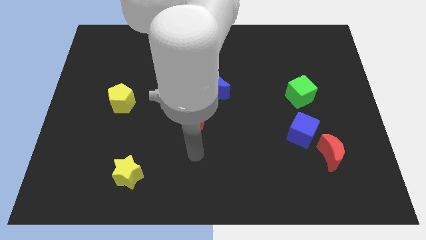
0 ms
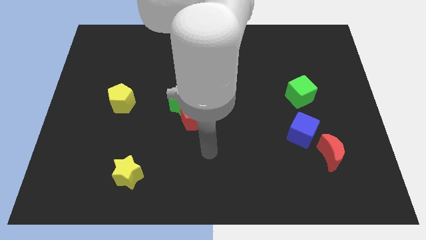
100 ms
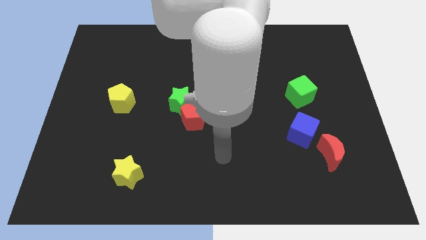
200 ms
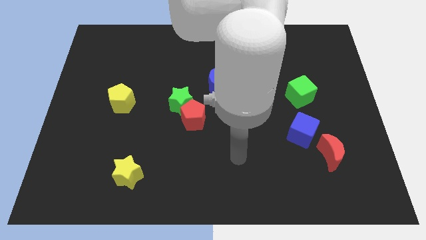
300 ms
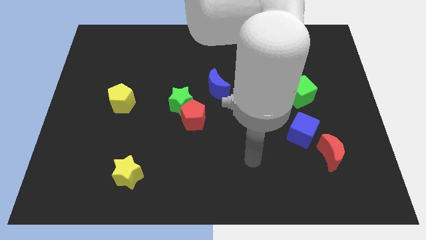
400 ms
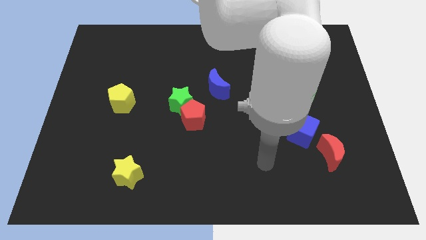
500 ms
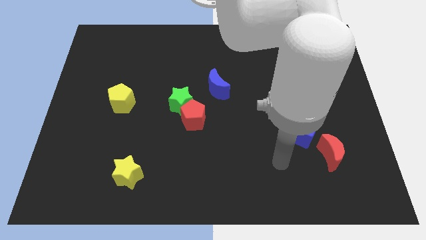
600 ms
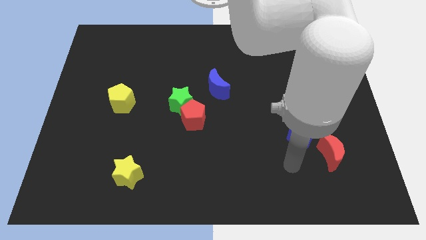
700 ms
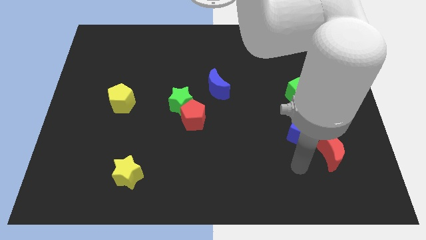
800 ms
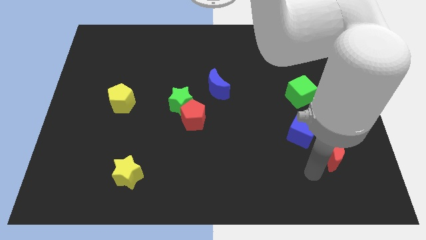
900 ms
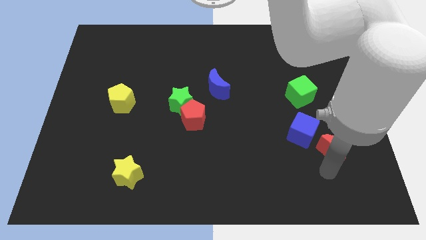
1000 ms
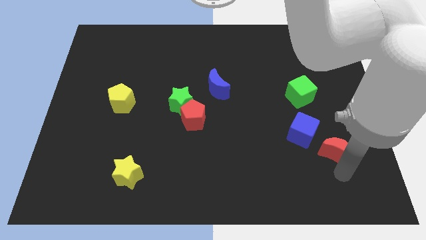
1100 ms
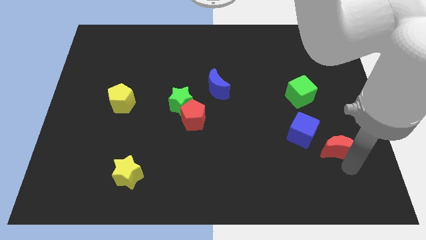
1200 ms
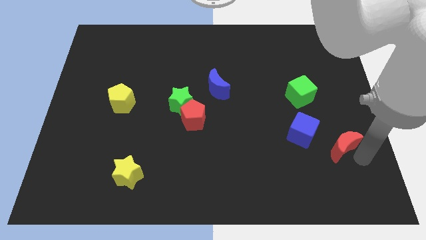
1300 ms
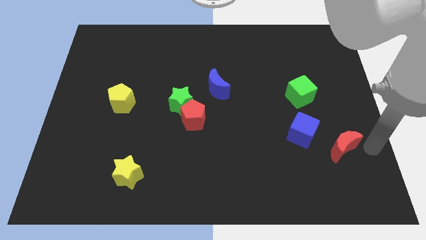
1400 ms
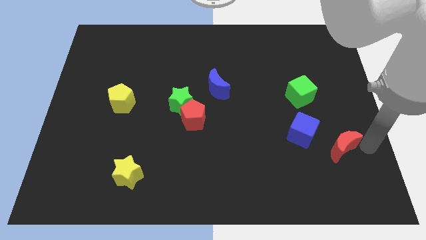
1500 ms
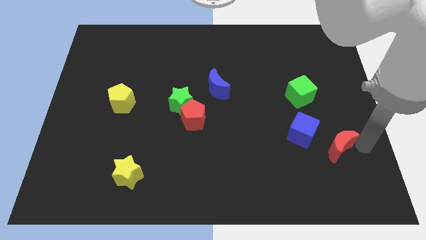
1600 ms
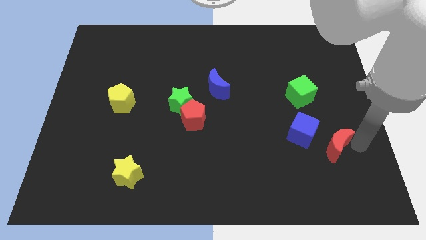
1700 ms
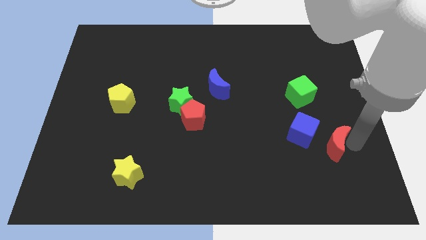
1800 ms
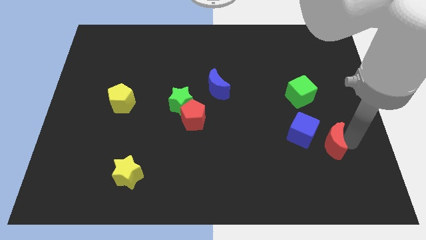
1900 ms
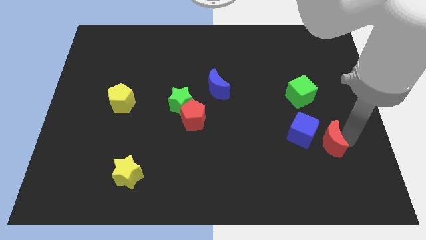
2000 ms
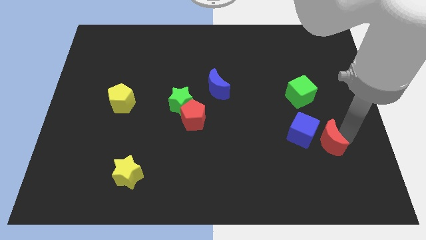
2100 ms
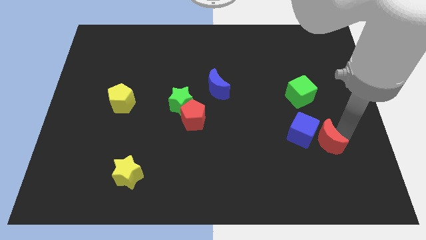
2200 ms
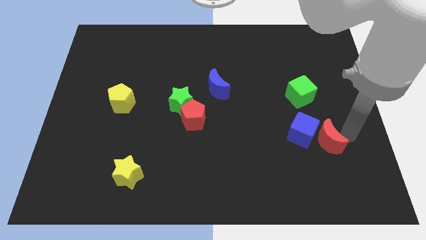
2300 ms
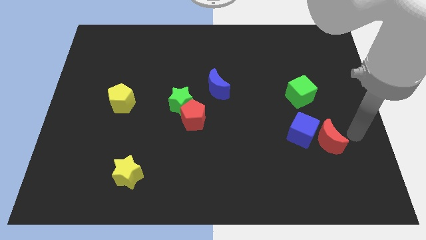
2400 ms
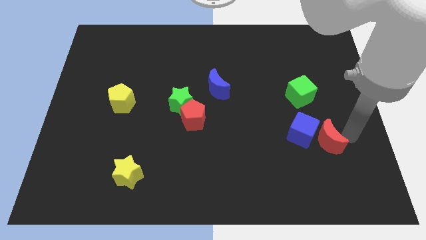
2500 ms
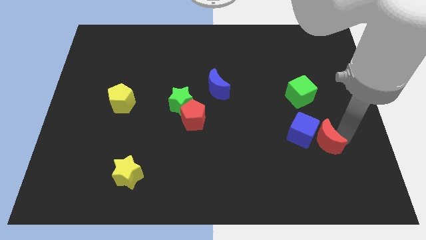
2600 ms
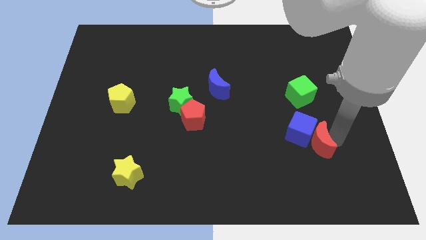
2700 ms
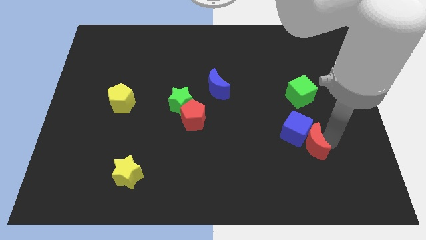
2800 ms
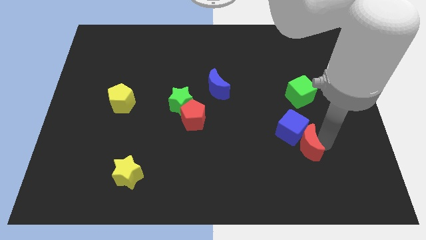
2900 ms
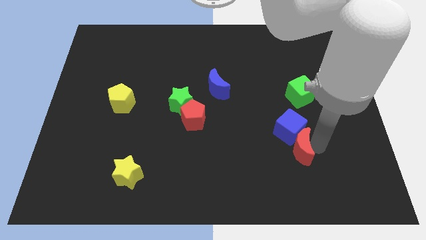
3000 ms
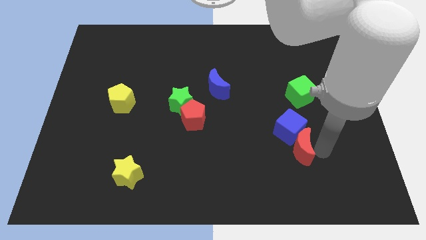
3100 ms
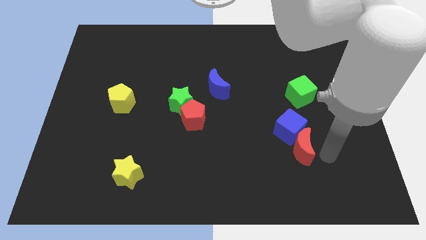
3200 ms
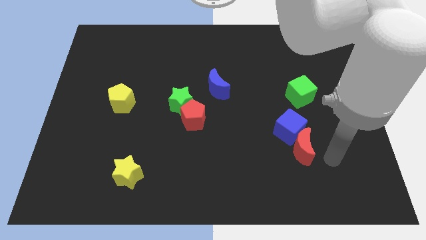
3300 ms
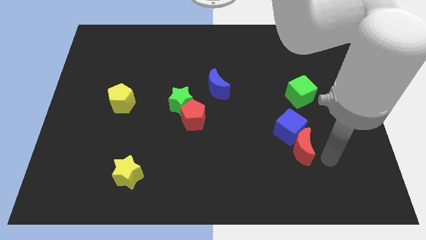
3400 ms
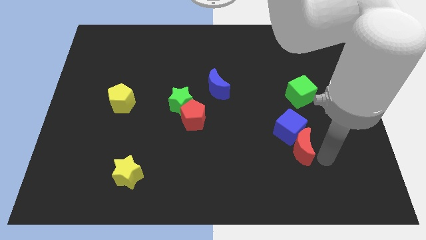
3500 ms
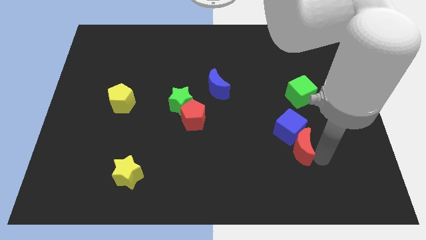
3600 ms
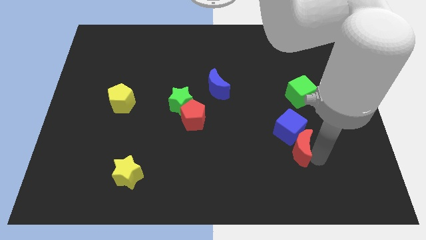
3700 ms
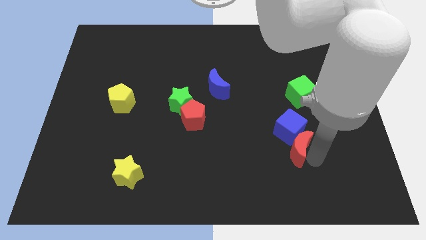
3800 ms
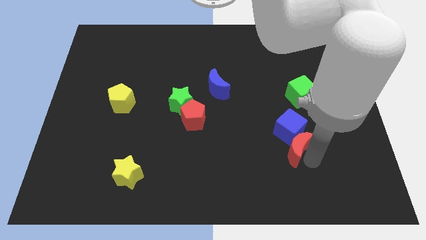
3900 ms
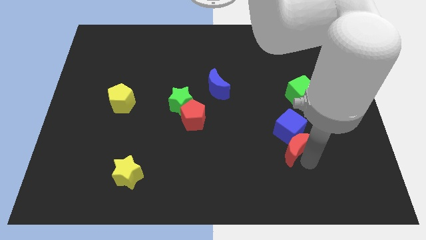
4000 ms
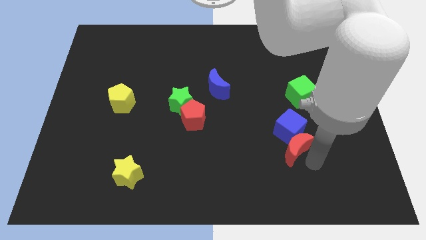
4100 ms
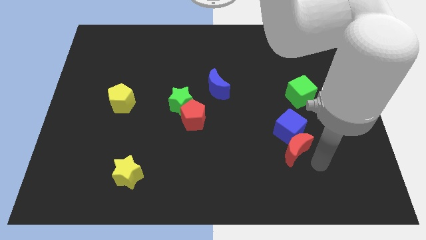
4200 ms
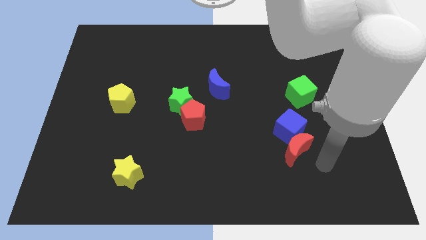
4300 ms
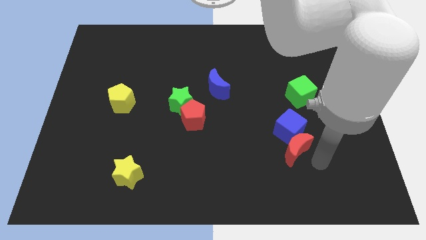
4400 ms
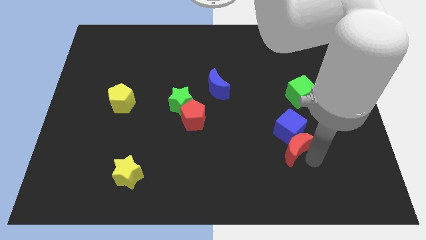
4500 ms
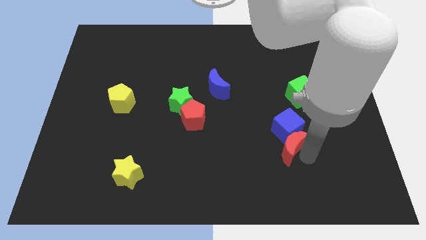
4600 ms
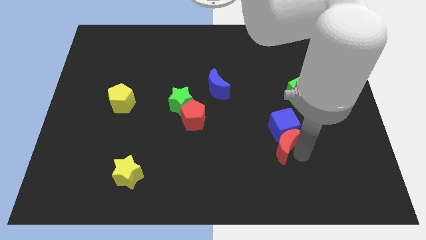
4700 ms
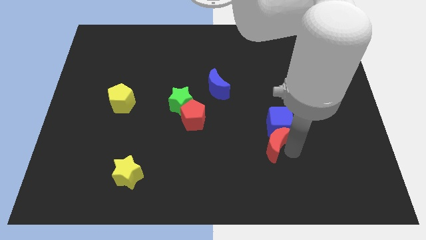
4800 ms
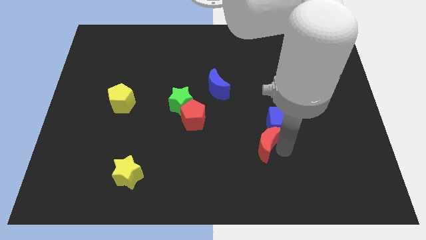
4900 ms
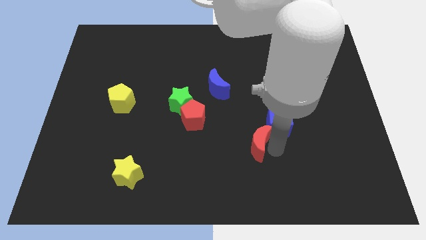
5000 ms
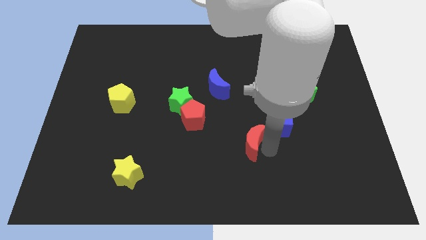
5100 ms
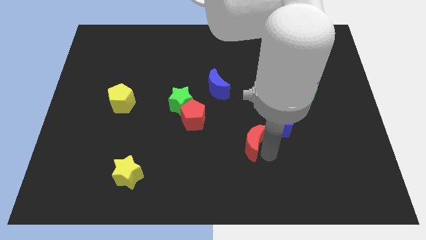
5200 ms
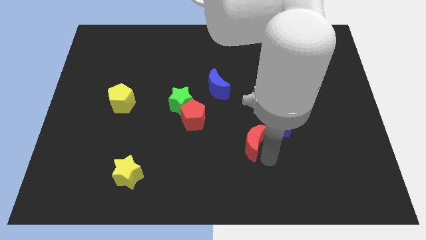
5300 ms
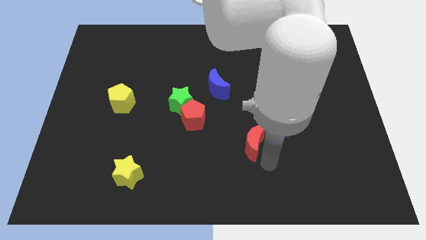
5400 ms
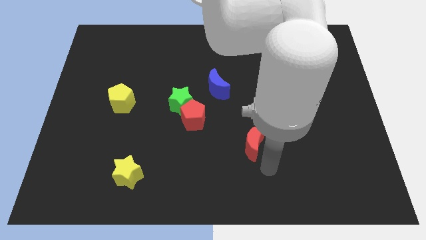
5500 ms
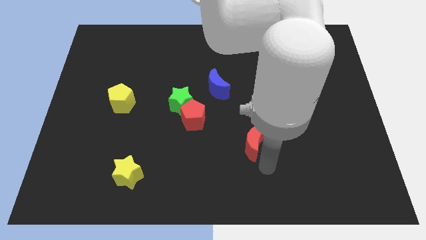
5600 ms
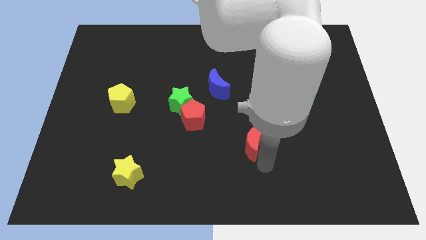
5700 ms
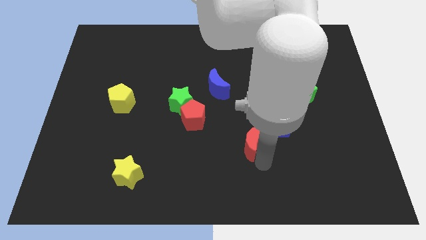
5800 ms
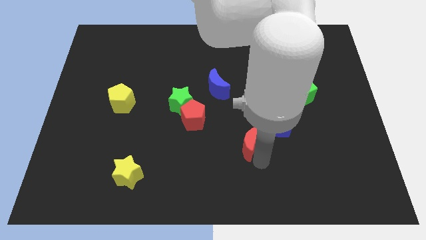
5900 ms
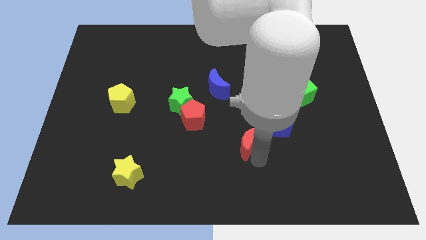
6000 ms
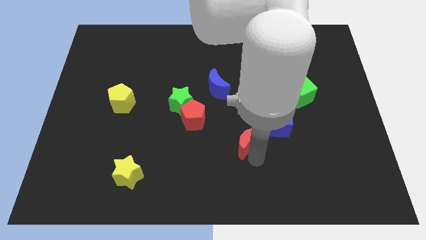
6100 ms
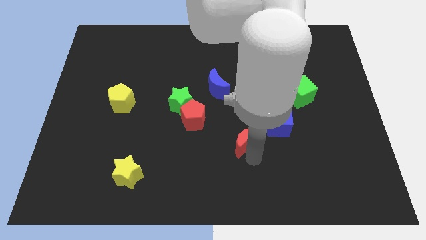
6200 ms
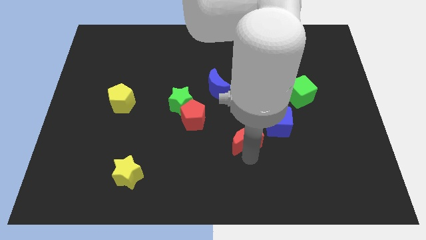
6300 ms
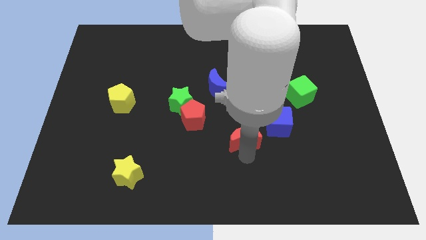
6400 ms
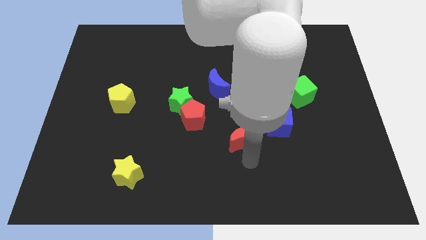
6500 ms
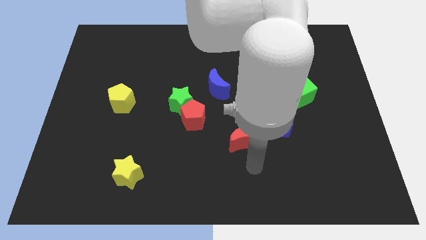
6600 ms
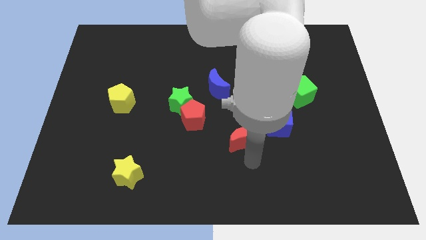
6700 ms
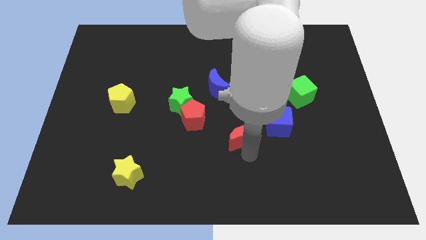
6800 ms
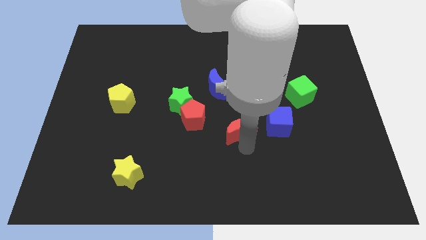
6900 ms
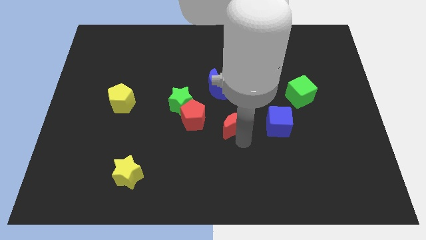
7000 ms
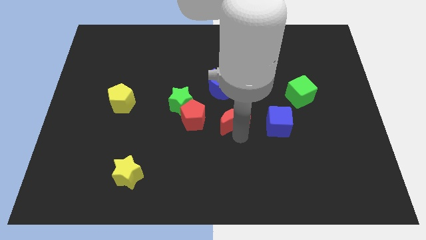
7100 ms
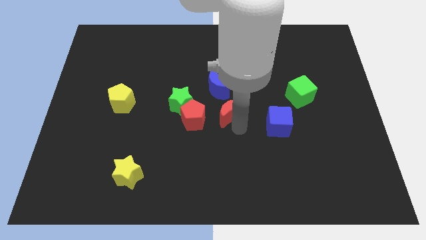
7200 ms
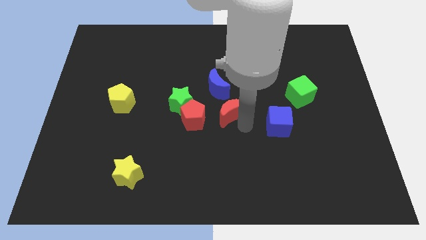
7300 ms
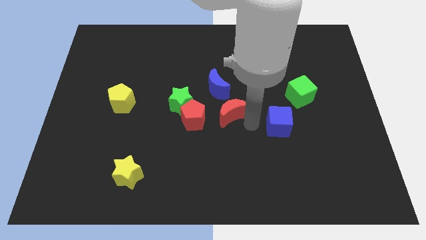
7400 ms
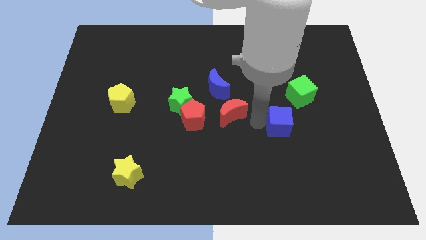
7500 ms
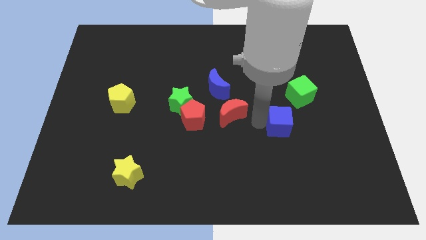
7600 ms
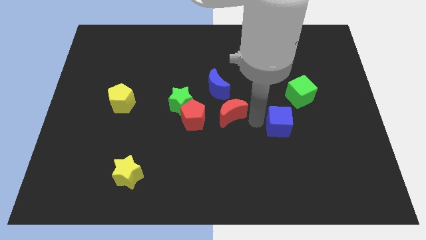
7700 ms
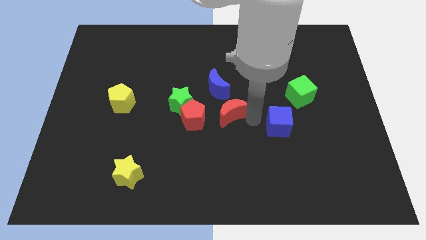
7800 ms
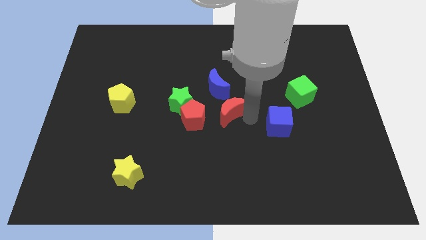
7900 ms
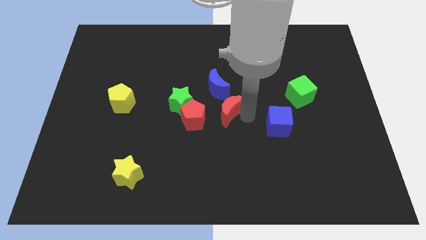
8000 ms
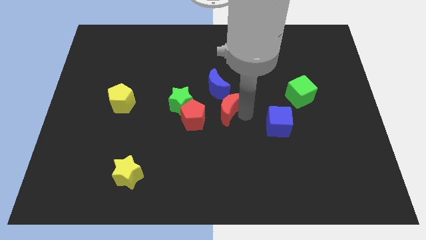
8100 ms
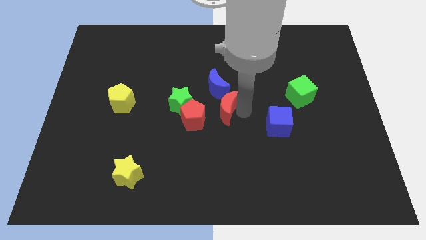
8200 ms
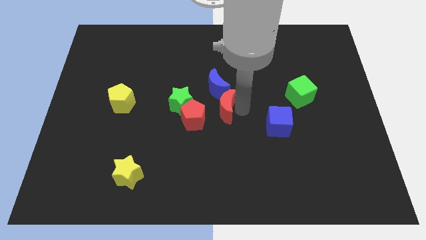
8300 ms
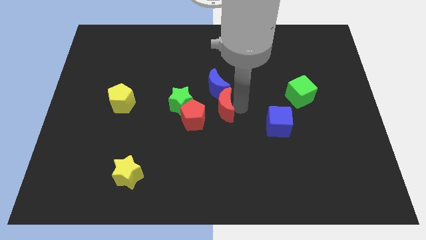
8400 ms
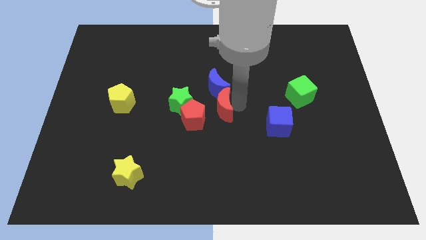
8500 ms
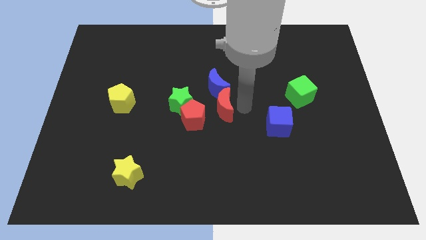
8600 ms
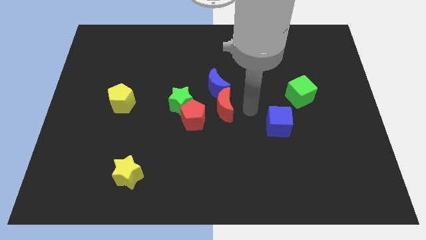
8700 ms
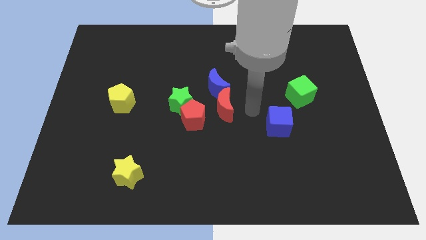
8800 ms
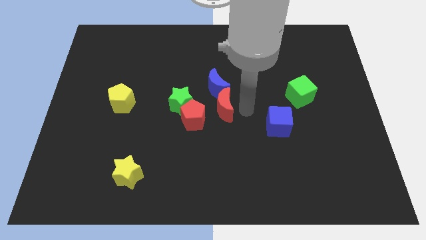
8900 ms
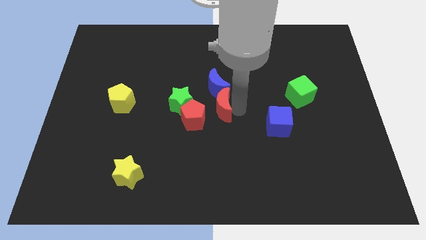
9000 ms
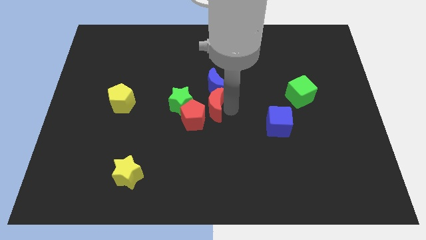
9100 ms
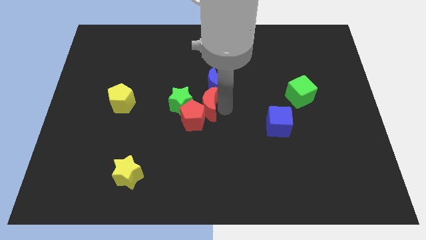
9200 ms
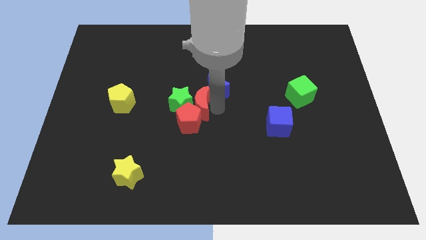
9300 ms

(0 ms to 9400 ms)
slide the red moon towards the green star
